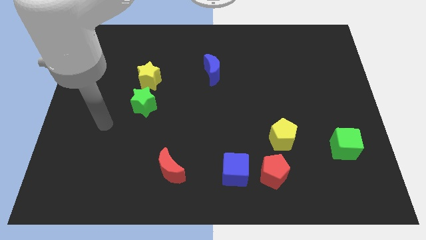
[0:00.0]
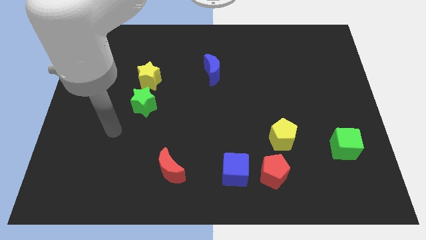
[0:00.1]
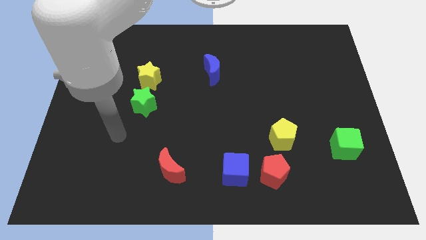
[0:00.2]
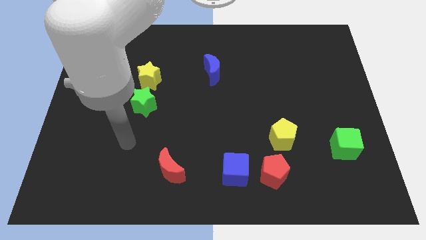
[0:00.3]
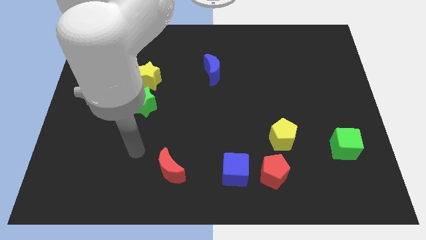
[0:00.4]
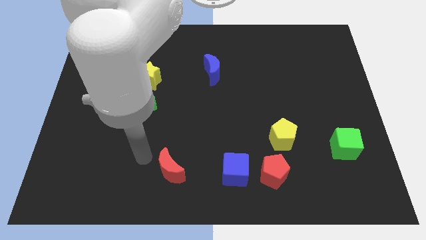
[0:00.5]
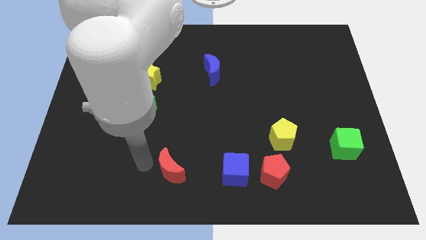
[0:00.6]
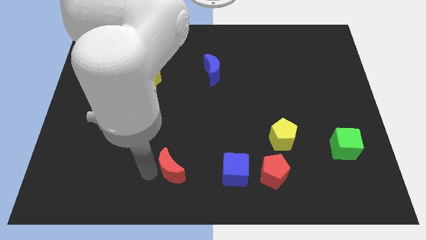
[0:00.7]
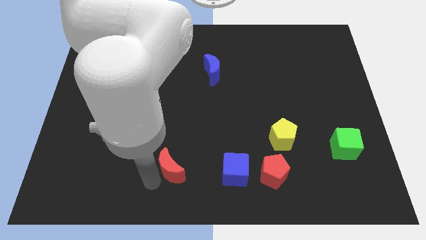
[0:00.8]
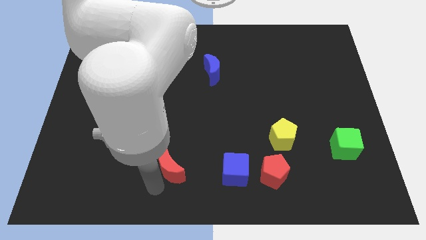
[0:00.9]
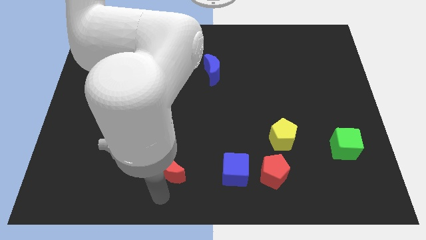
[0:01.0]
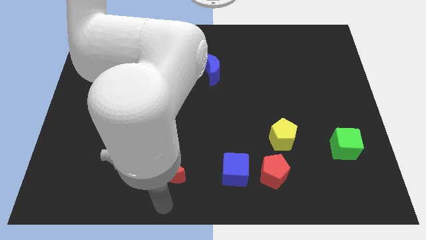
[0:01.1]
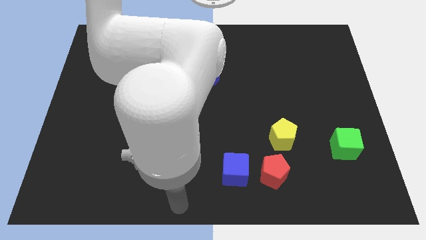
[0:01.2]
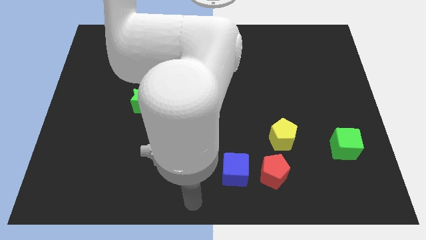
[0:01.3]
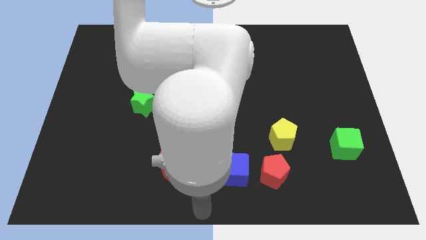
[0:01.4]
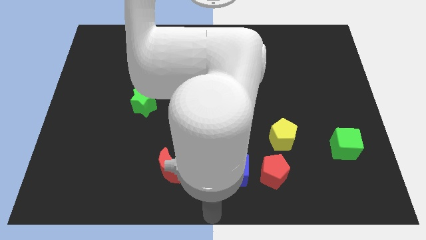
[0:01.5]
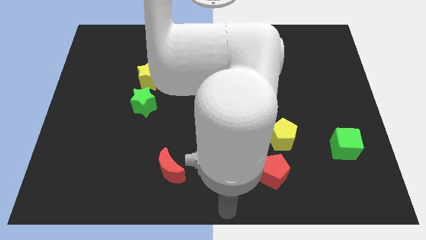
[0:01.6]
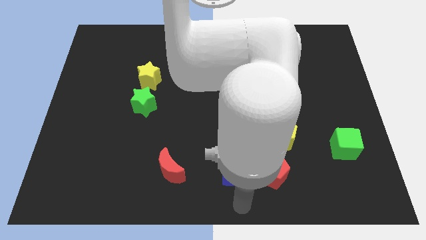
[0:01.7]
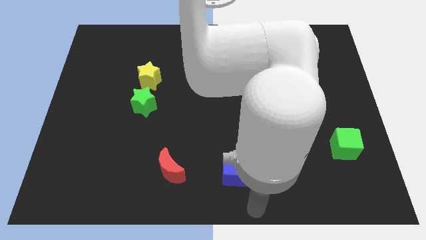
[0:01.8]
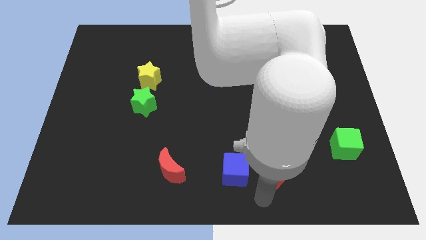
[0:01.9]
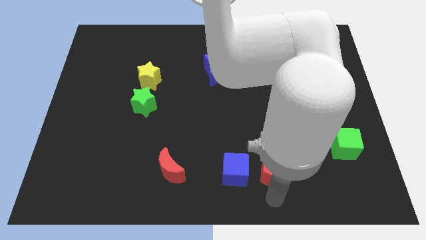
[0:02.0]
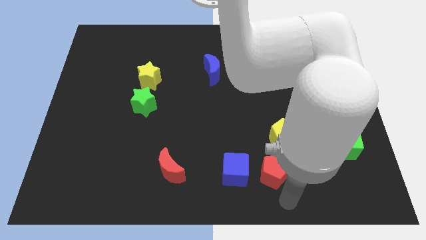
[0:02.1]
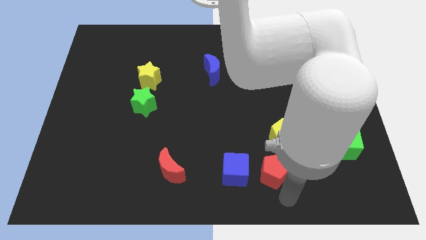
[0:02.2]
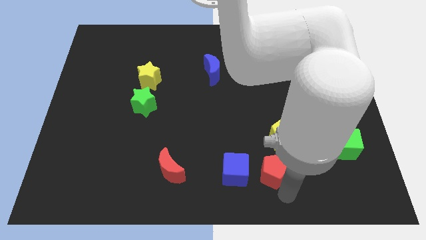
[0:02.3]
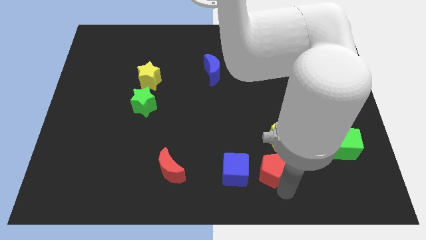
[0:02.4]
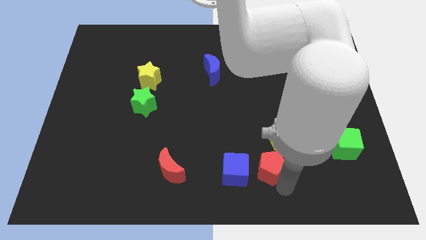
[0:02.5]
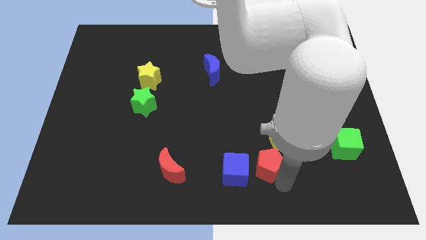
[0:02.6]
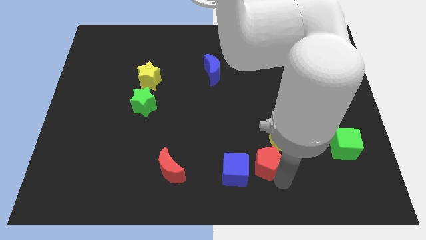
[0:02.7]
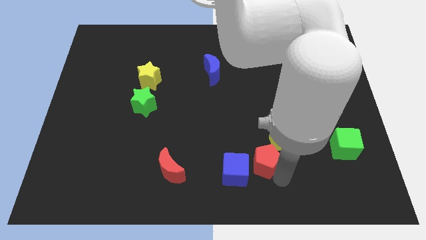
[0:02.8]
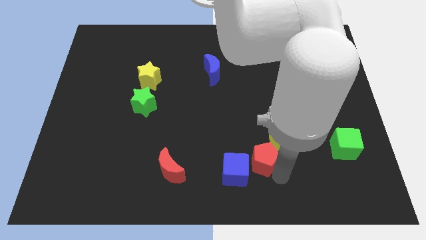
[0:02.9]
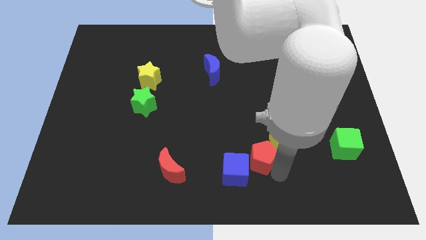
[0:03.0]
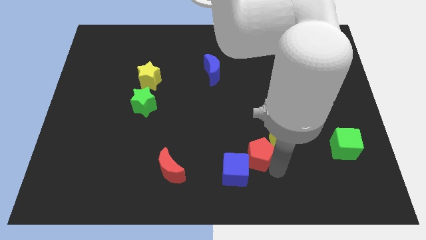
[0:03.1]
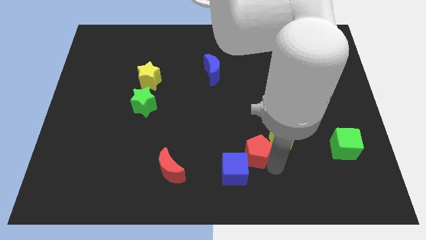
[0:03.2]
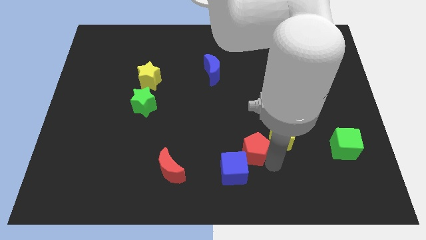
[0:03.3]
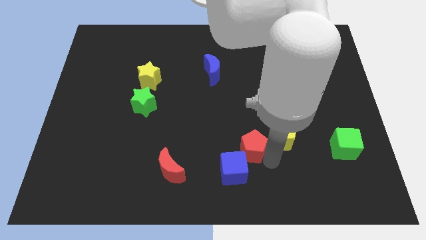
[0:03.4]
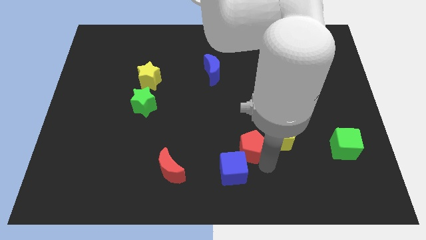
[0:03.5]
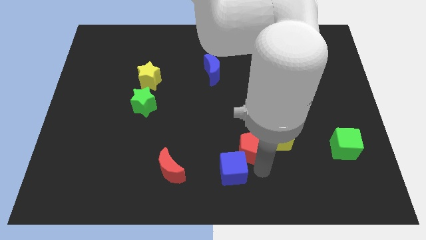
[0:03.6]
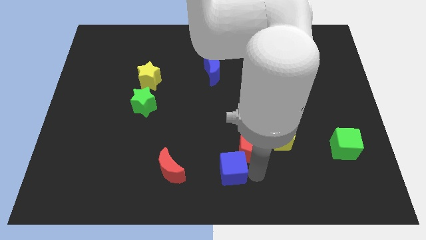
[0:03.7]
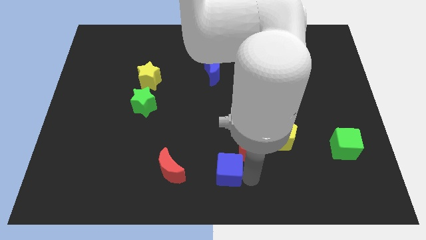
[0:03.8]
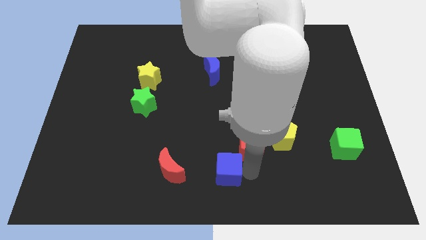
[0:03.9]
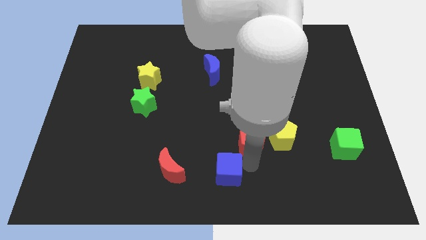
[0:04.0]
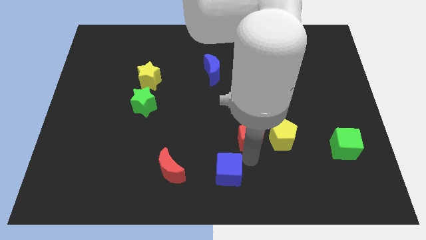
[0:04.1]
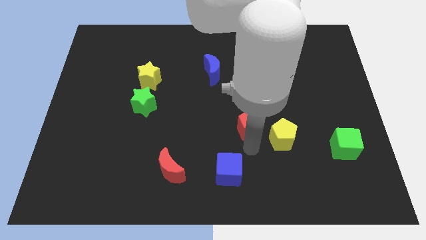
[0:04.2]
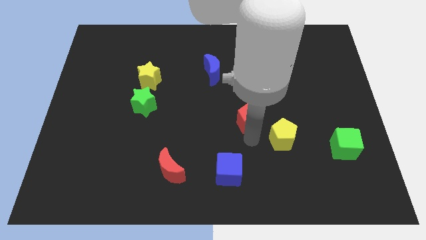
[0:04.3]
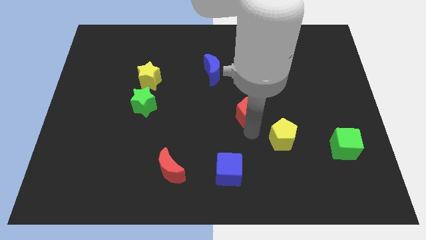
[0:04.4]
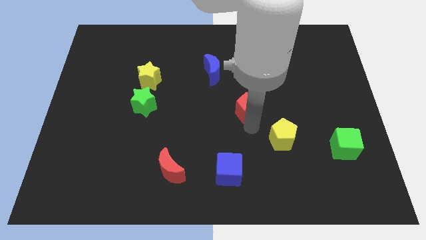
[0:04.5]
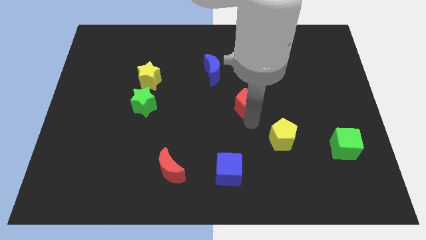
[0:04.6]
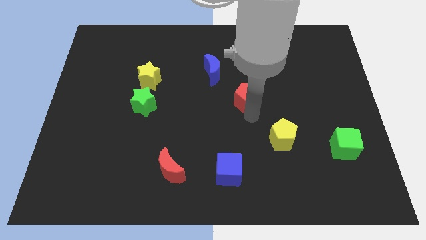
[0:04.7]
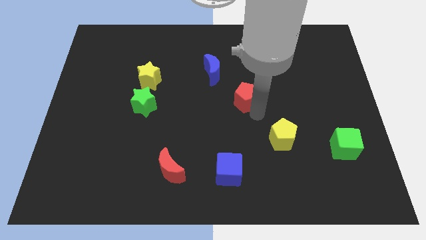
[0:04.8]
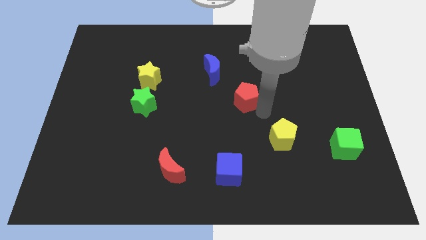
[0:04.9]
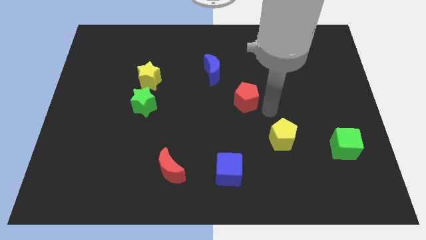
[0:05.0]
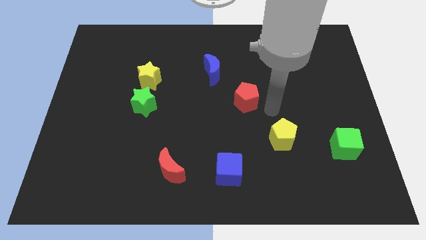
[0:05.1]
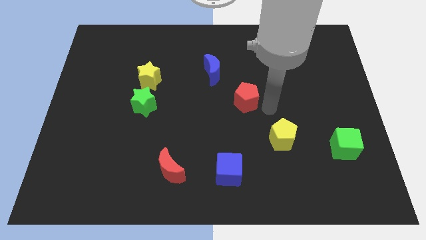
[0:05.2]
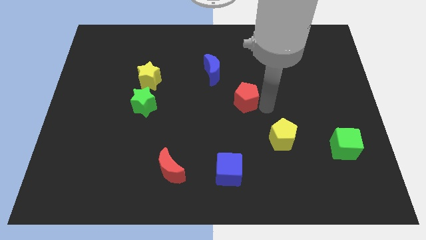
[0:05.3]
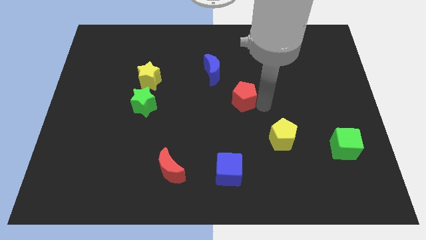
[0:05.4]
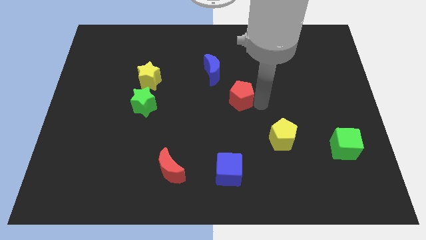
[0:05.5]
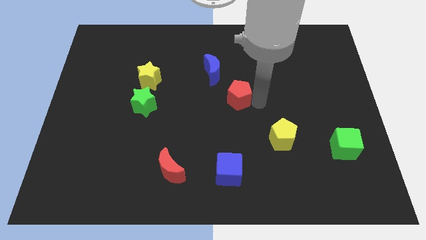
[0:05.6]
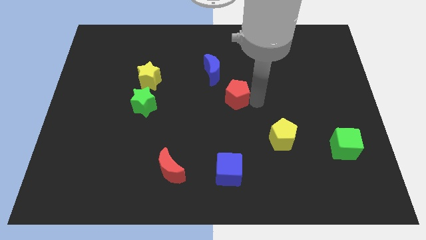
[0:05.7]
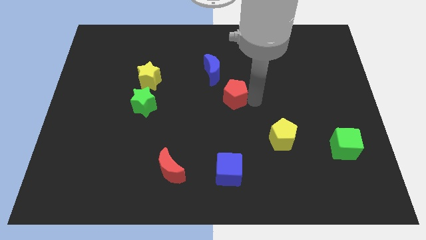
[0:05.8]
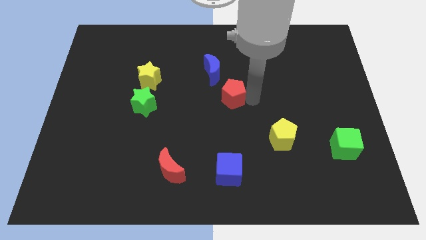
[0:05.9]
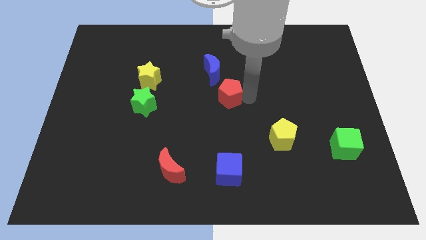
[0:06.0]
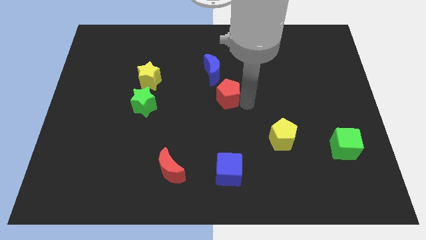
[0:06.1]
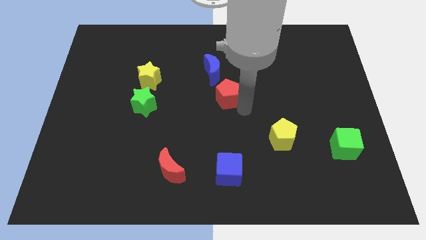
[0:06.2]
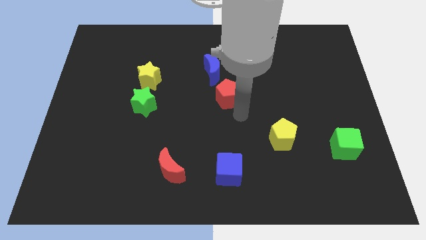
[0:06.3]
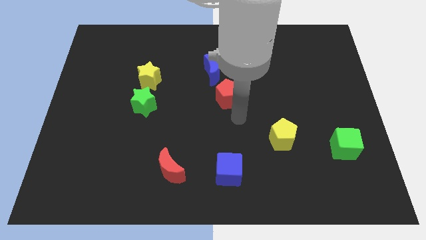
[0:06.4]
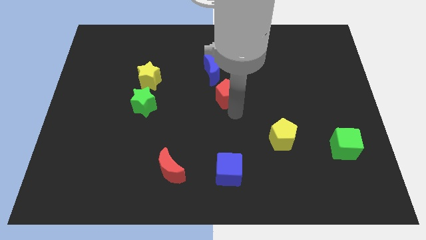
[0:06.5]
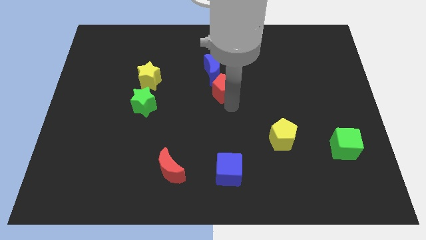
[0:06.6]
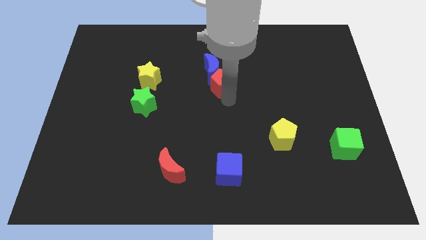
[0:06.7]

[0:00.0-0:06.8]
push the red pentagon towards the blue moon
